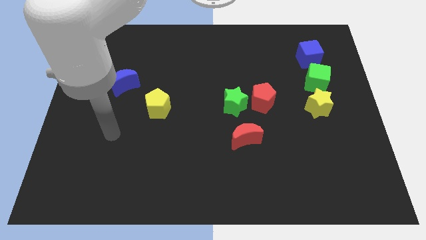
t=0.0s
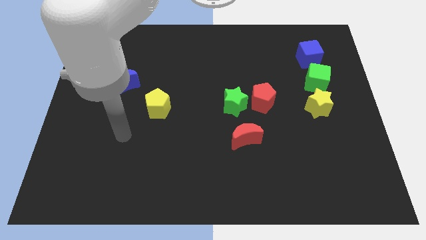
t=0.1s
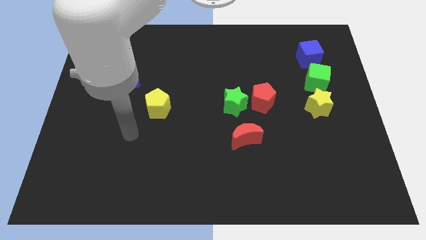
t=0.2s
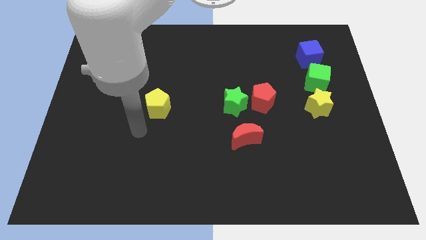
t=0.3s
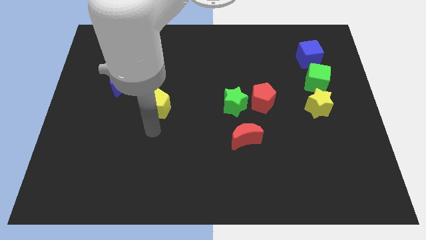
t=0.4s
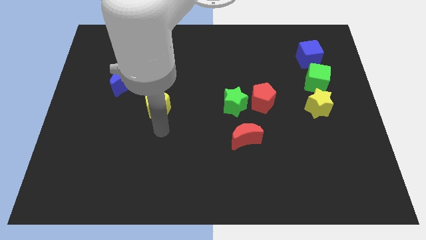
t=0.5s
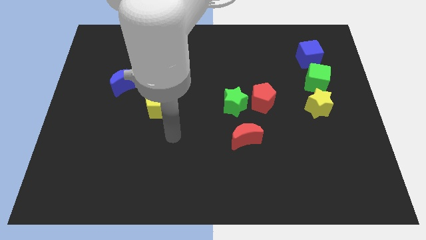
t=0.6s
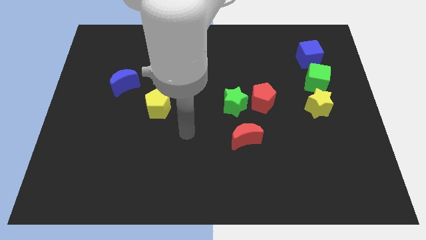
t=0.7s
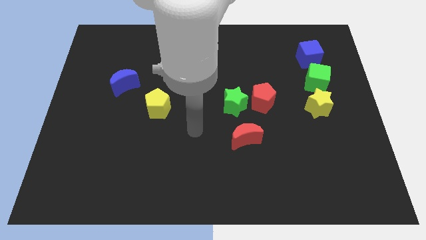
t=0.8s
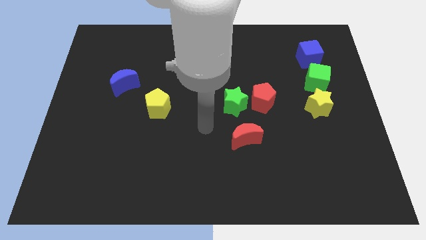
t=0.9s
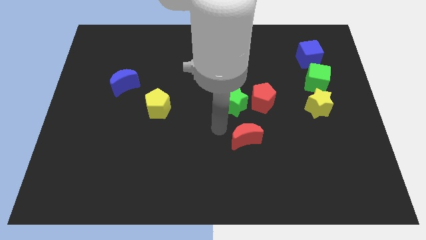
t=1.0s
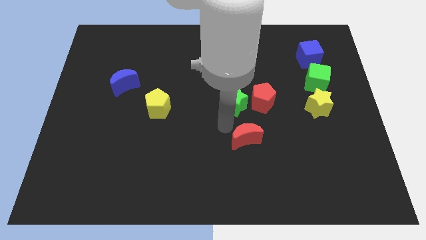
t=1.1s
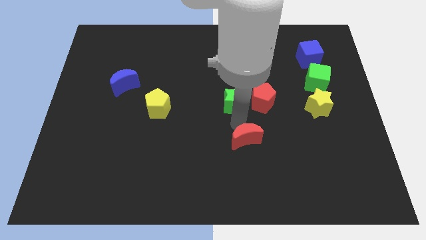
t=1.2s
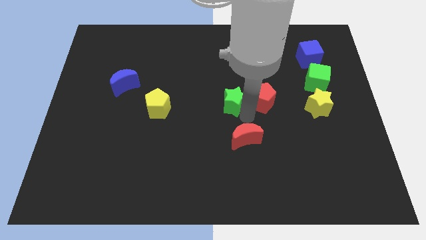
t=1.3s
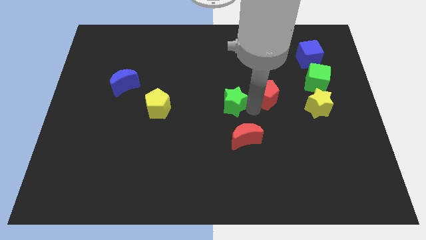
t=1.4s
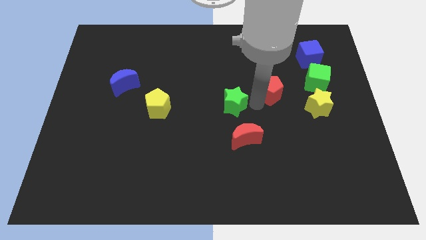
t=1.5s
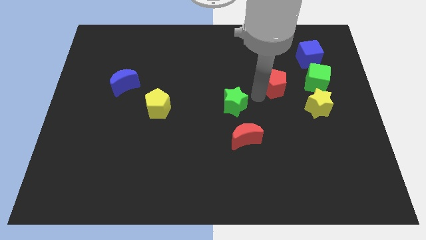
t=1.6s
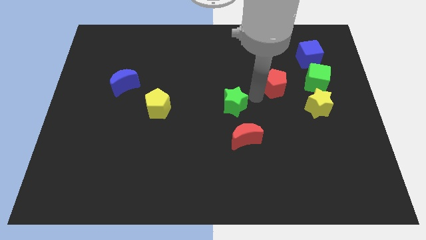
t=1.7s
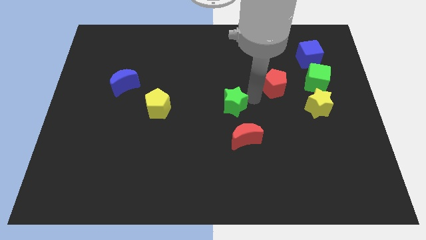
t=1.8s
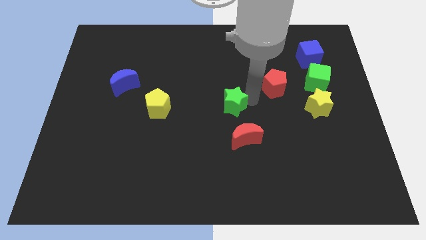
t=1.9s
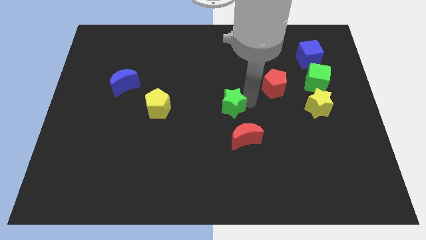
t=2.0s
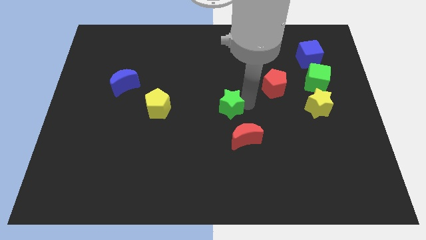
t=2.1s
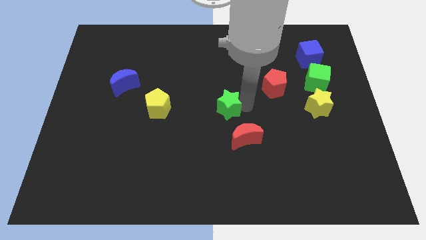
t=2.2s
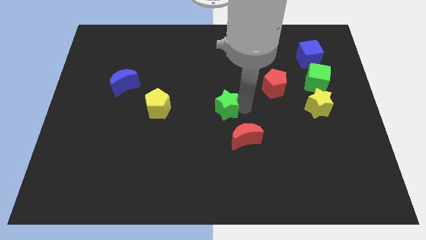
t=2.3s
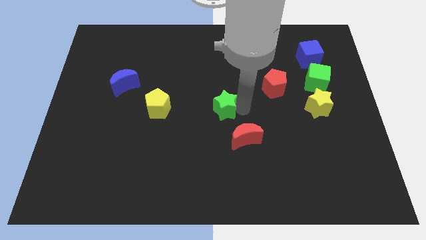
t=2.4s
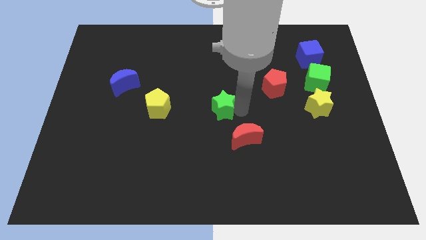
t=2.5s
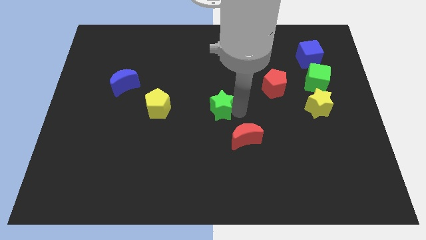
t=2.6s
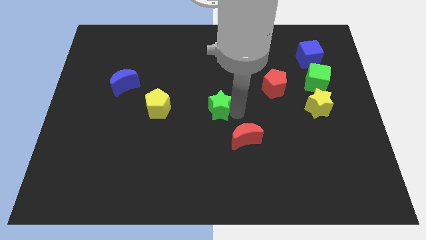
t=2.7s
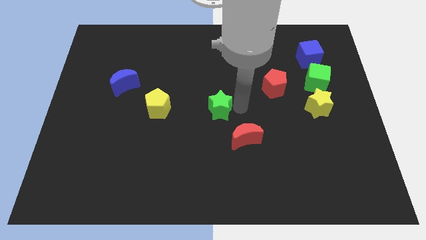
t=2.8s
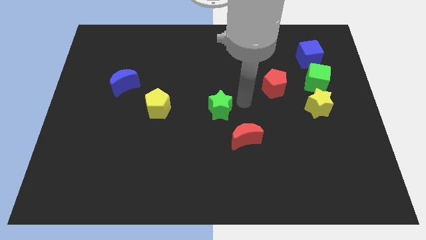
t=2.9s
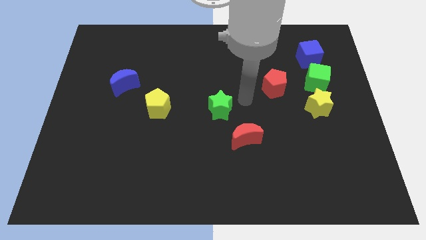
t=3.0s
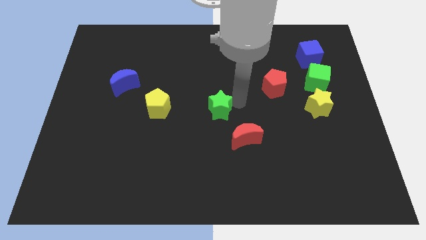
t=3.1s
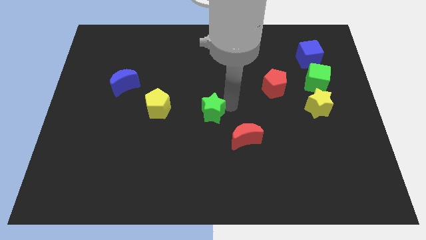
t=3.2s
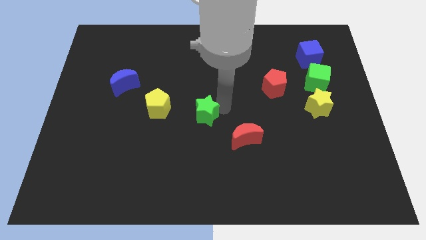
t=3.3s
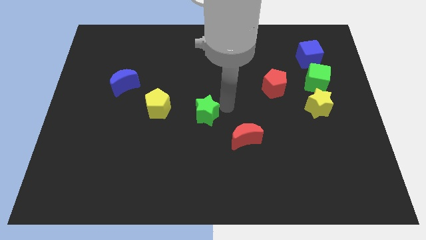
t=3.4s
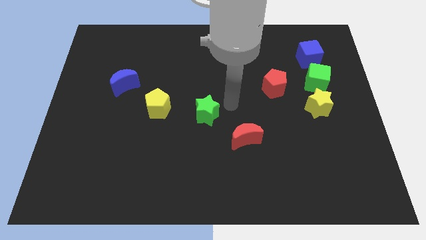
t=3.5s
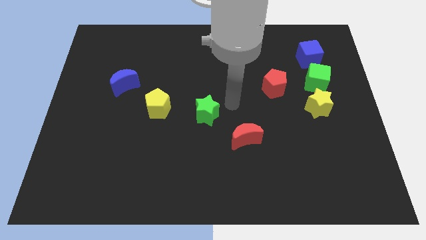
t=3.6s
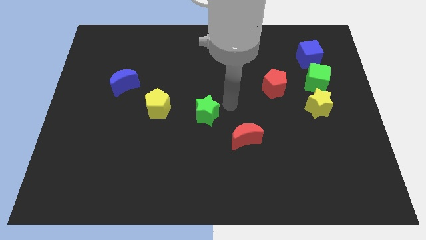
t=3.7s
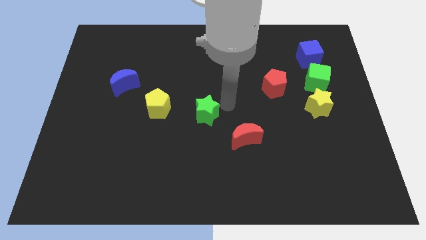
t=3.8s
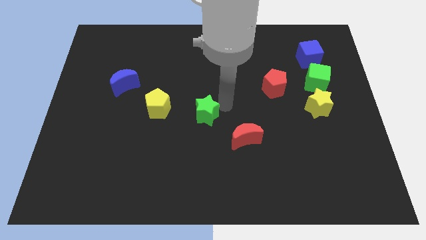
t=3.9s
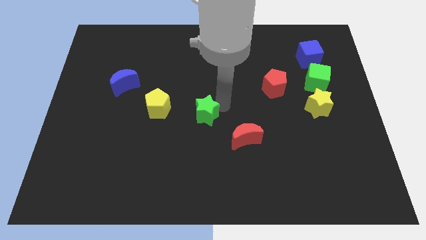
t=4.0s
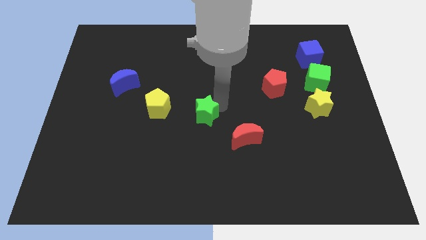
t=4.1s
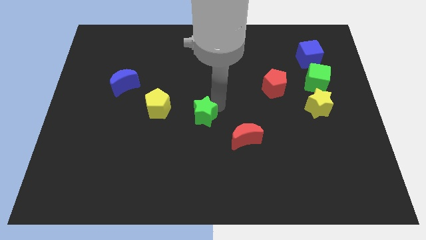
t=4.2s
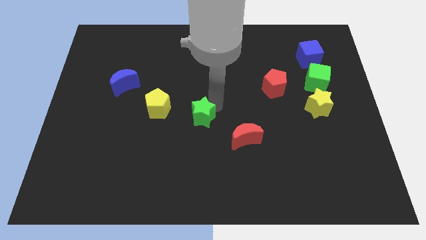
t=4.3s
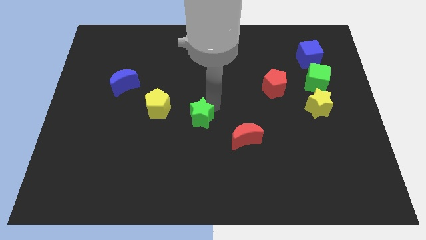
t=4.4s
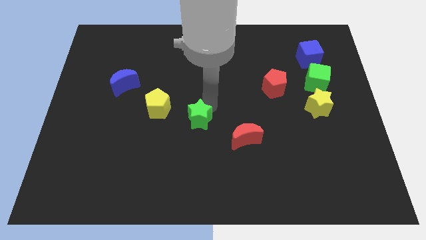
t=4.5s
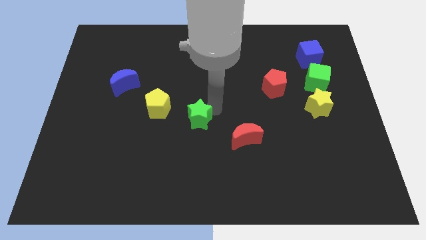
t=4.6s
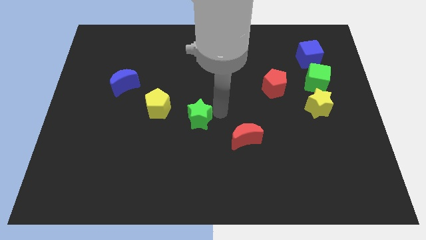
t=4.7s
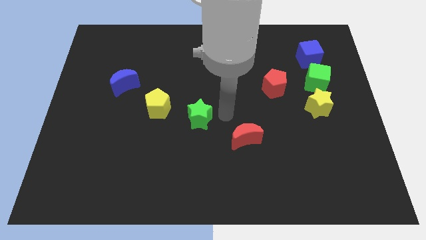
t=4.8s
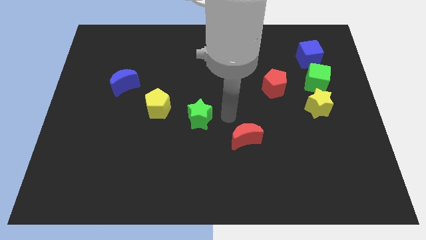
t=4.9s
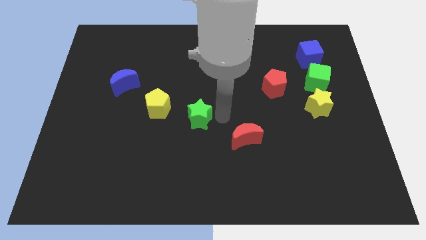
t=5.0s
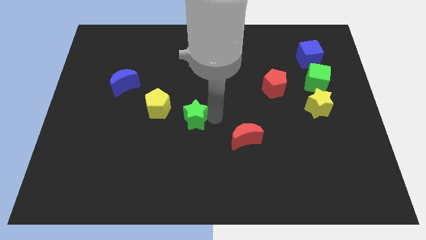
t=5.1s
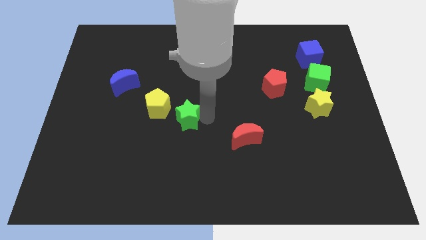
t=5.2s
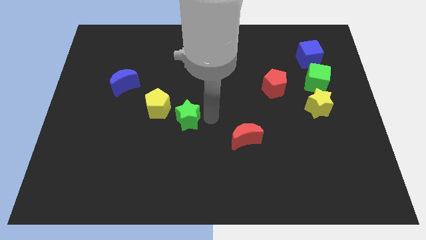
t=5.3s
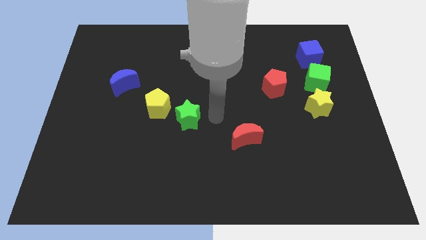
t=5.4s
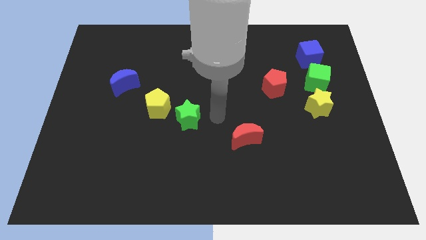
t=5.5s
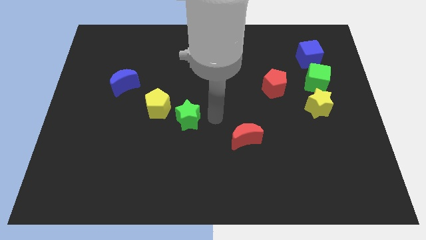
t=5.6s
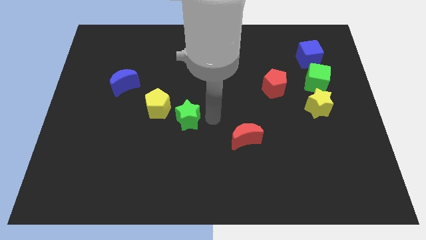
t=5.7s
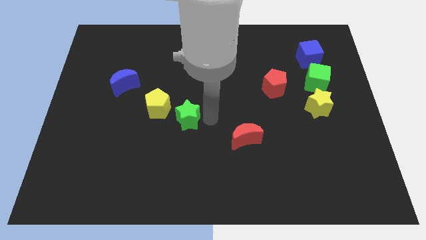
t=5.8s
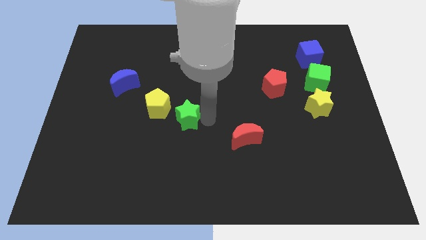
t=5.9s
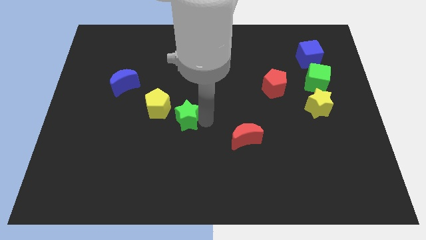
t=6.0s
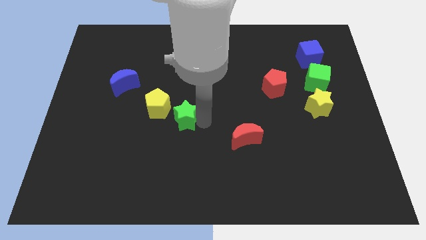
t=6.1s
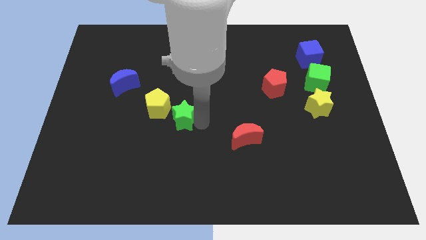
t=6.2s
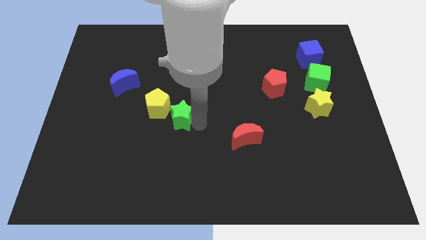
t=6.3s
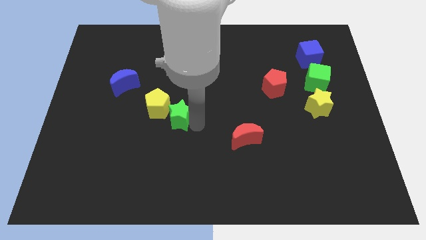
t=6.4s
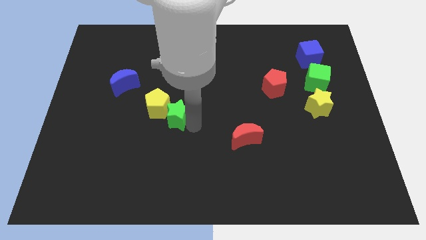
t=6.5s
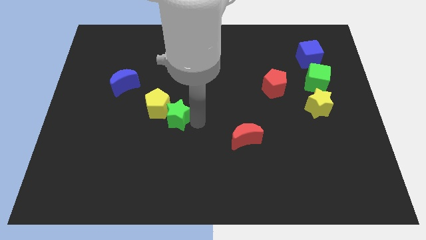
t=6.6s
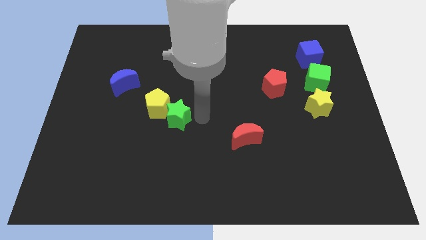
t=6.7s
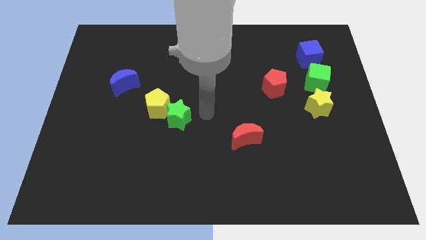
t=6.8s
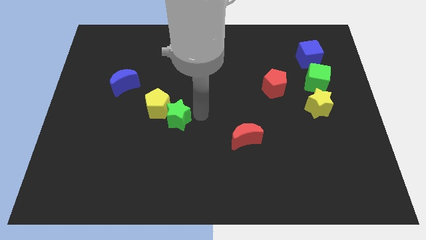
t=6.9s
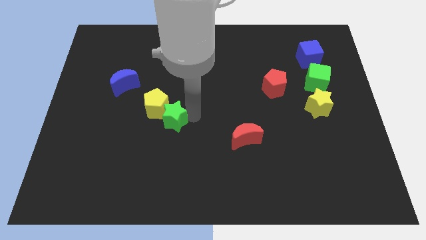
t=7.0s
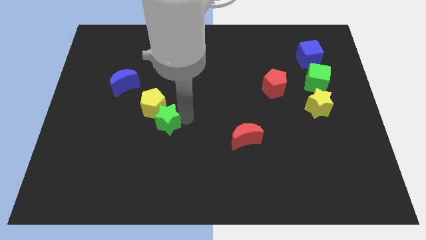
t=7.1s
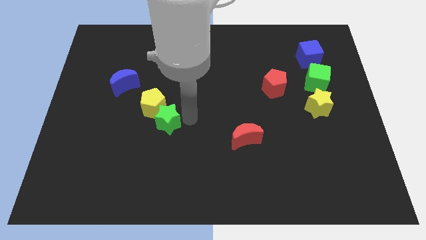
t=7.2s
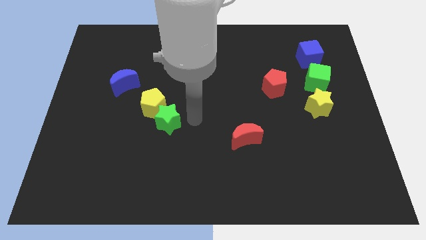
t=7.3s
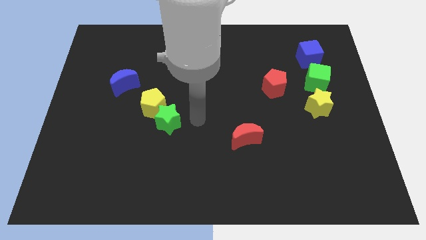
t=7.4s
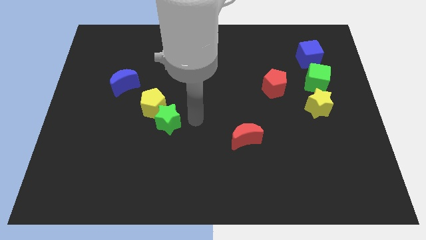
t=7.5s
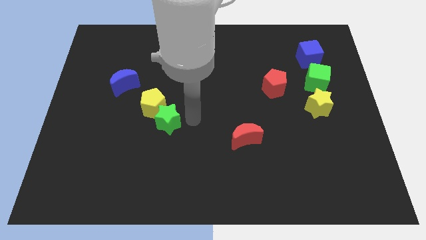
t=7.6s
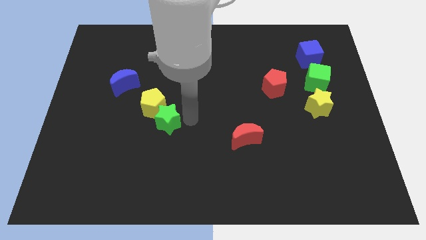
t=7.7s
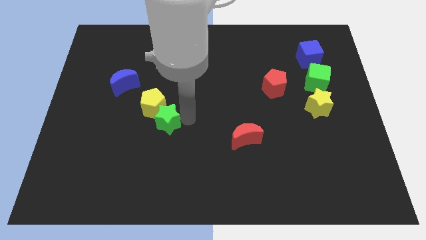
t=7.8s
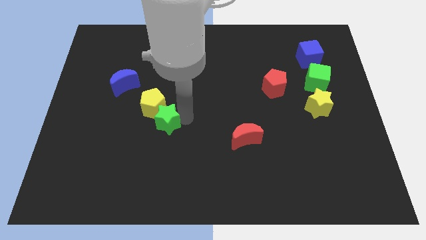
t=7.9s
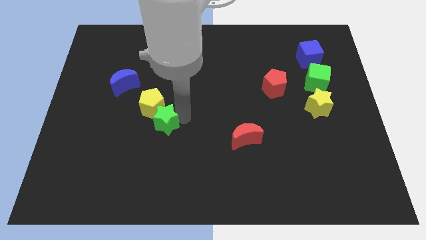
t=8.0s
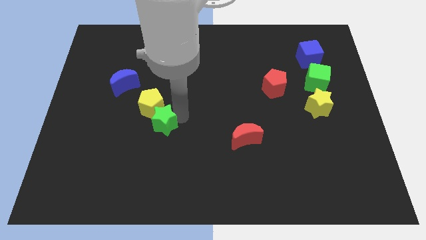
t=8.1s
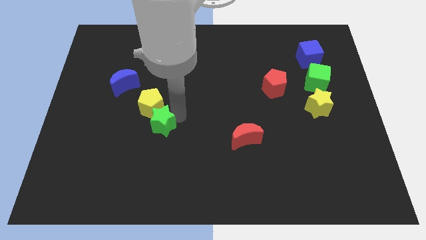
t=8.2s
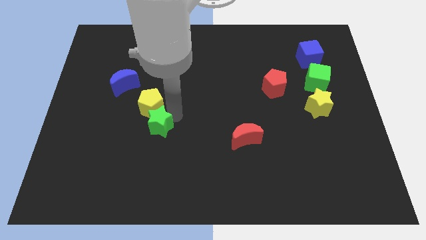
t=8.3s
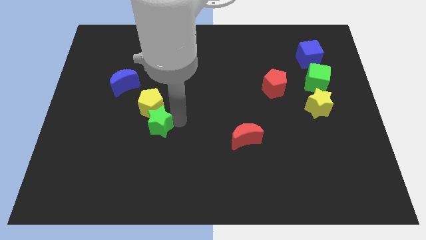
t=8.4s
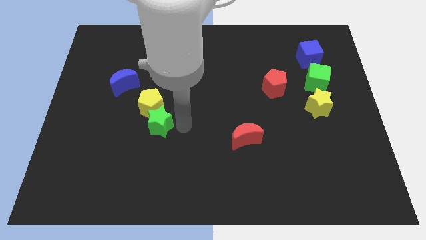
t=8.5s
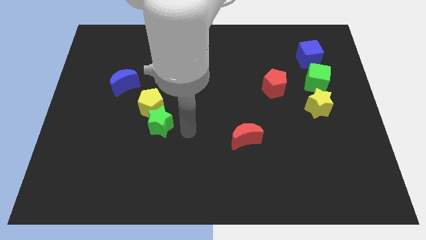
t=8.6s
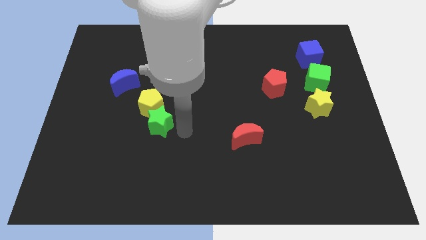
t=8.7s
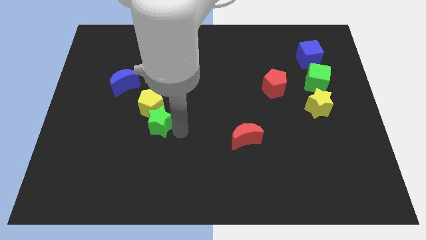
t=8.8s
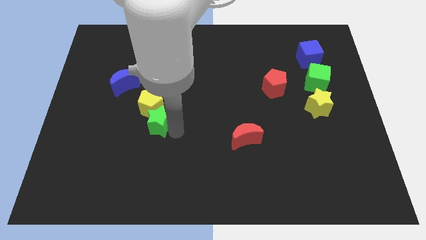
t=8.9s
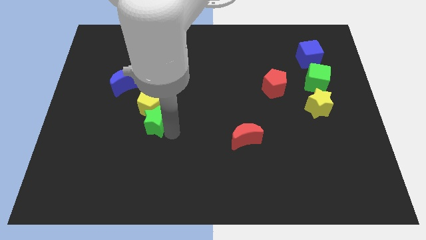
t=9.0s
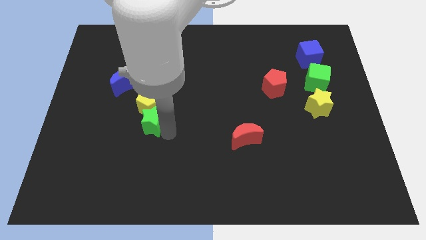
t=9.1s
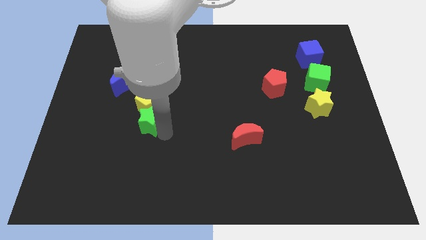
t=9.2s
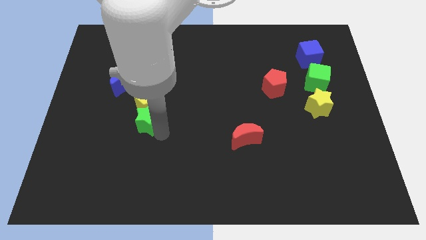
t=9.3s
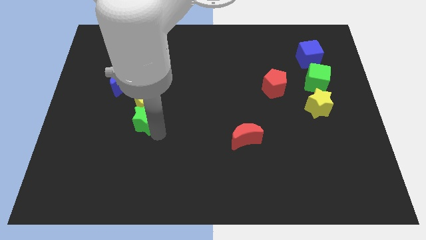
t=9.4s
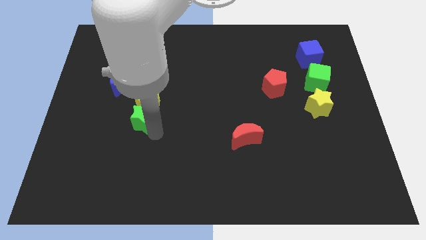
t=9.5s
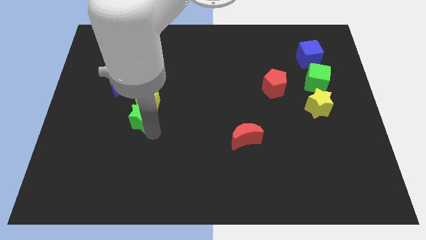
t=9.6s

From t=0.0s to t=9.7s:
move the green star left
